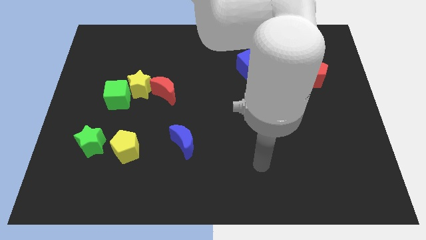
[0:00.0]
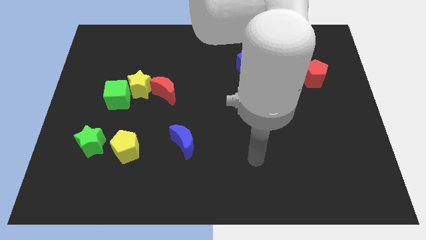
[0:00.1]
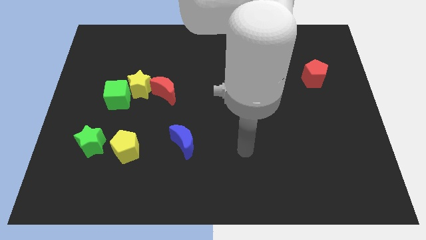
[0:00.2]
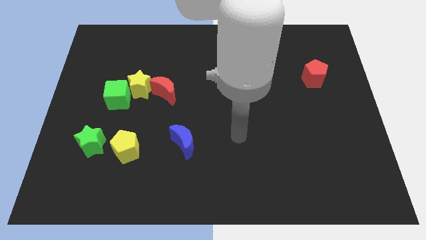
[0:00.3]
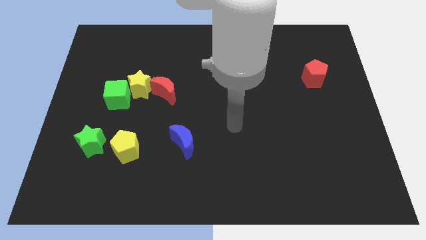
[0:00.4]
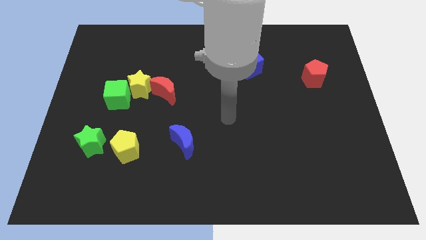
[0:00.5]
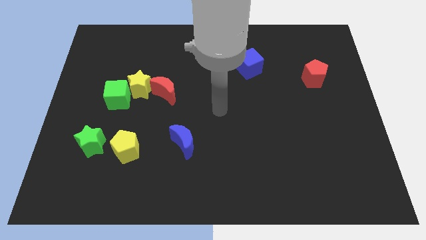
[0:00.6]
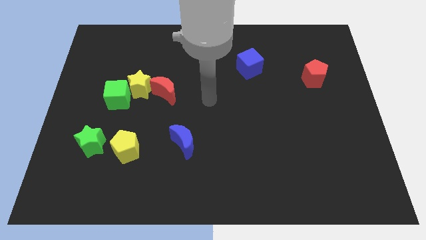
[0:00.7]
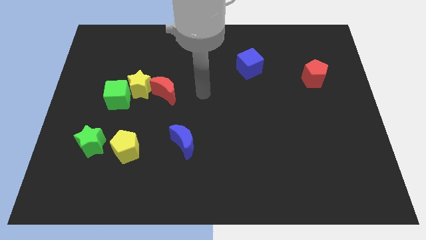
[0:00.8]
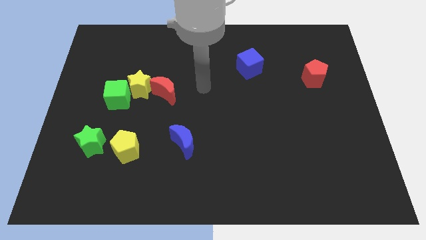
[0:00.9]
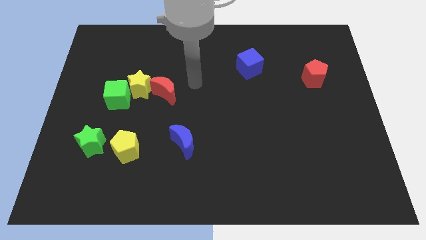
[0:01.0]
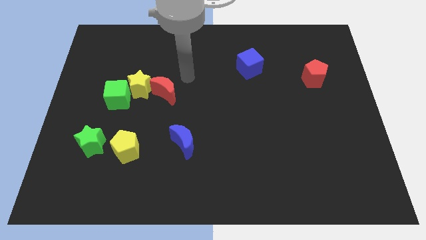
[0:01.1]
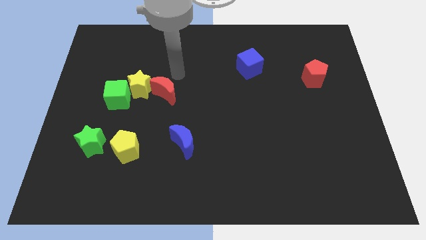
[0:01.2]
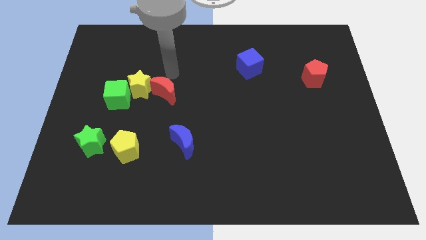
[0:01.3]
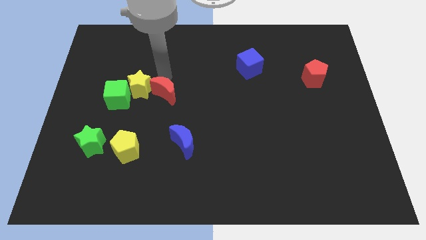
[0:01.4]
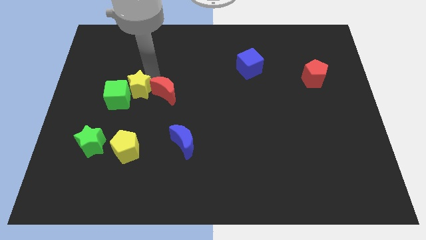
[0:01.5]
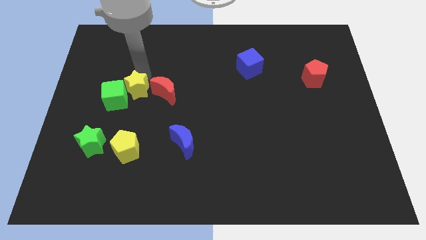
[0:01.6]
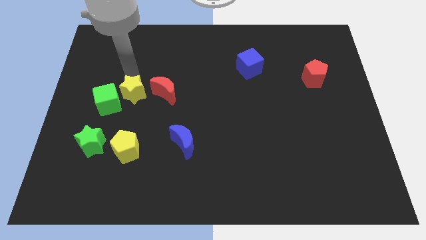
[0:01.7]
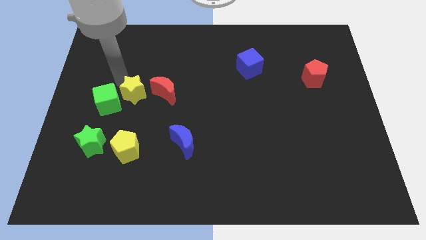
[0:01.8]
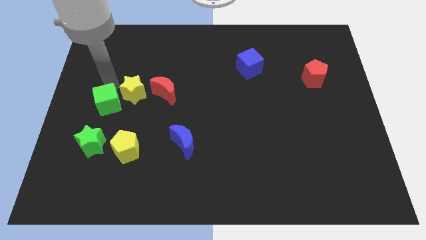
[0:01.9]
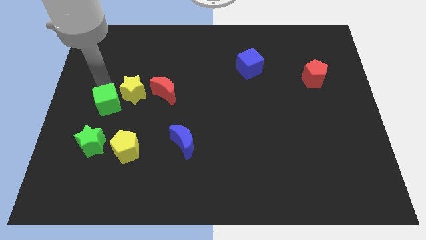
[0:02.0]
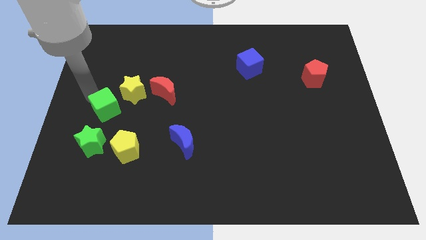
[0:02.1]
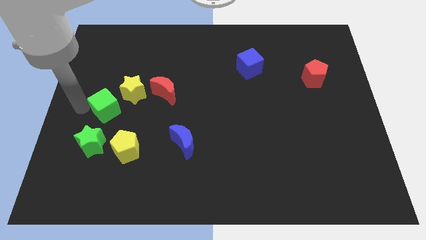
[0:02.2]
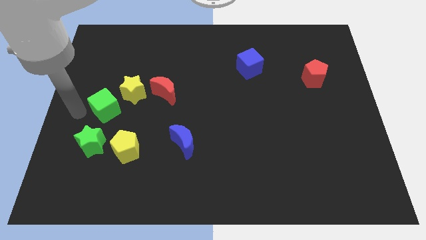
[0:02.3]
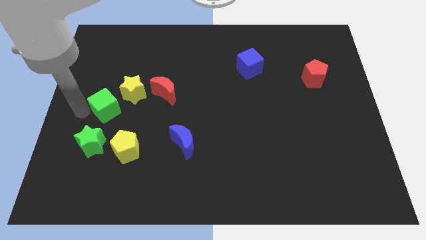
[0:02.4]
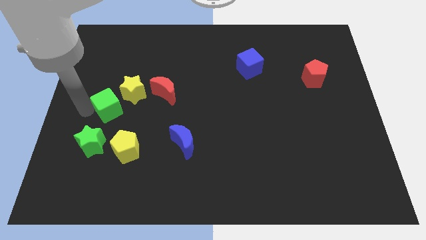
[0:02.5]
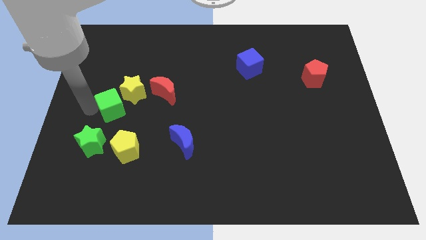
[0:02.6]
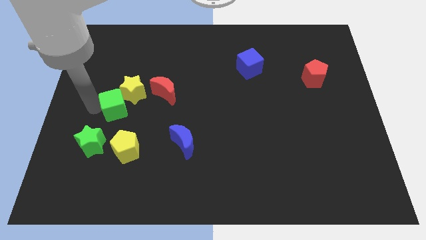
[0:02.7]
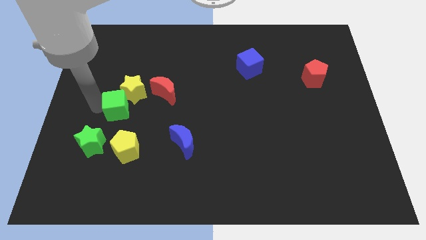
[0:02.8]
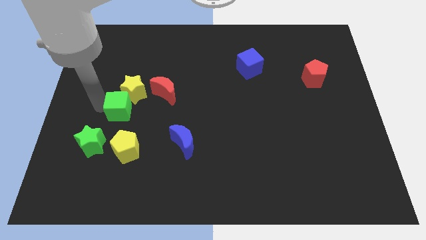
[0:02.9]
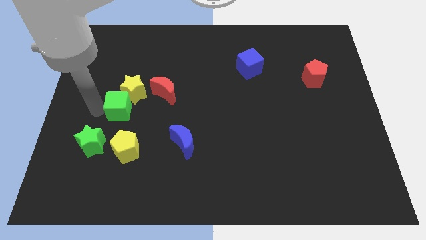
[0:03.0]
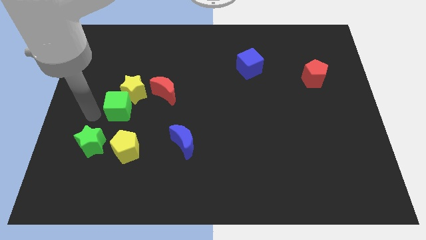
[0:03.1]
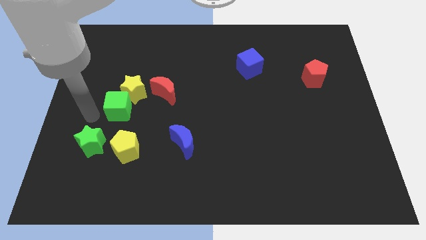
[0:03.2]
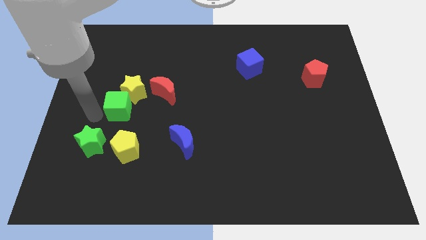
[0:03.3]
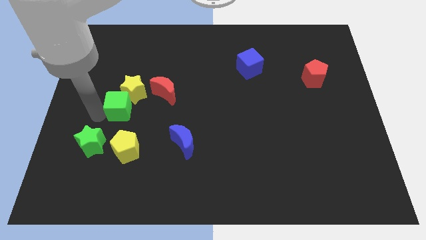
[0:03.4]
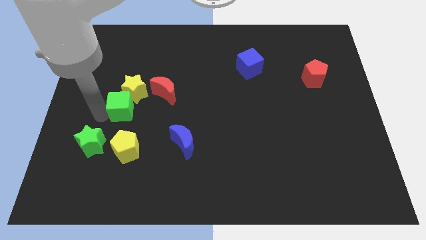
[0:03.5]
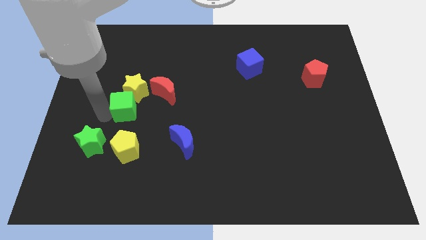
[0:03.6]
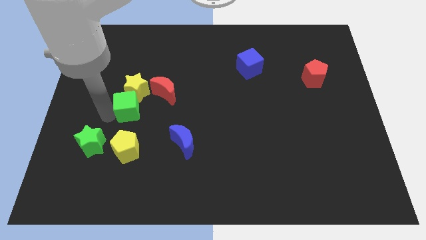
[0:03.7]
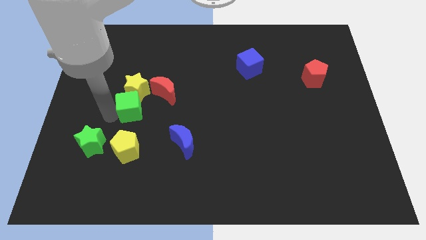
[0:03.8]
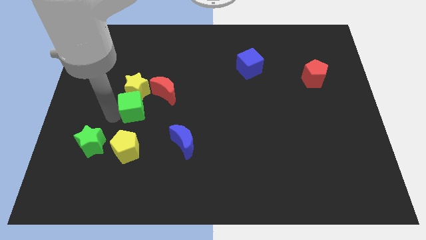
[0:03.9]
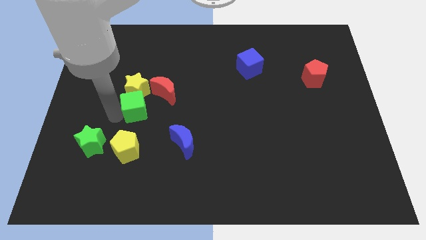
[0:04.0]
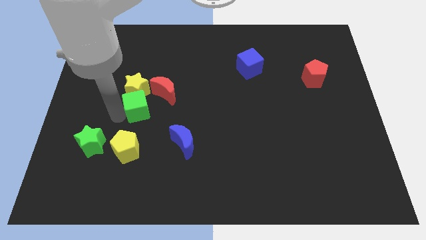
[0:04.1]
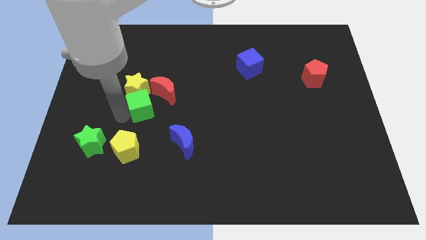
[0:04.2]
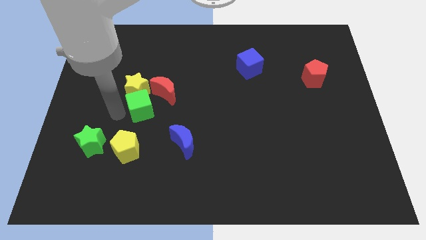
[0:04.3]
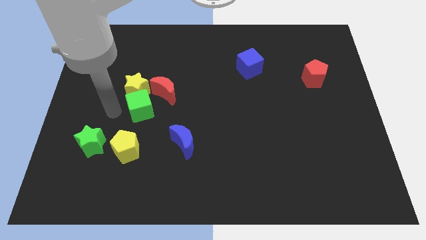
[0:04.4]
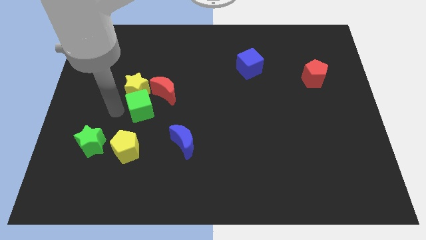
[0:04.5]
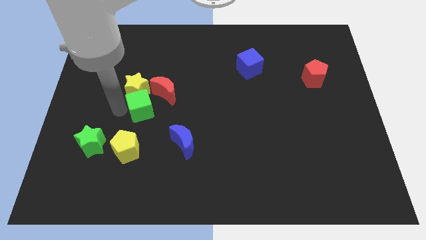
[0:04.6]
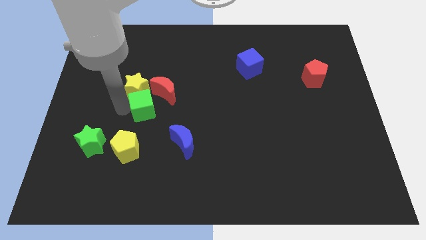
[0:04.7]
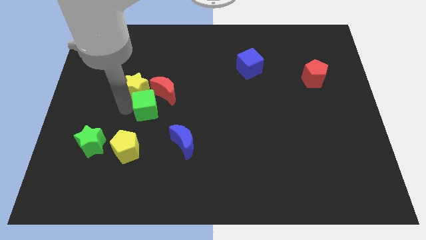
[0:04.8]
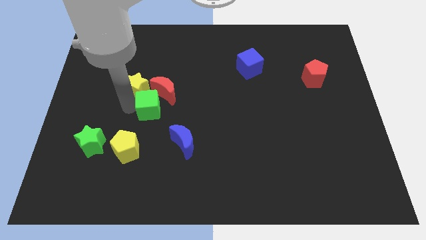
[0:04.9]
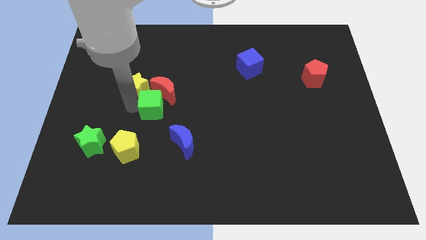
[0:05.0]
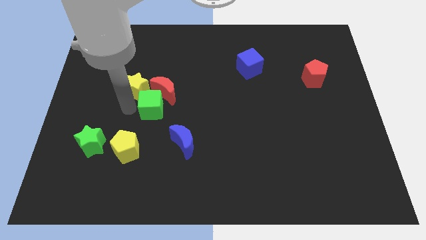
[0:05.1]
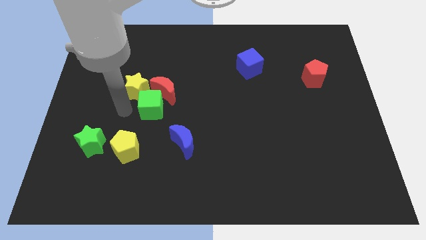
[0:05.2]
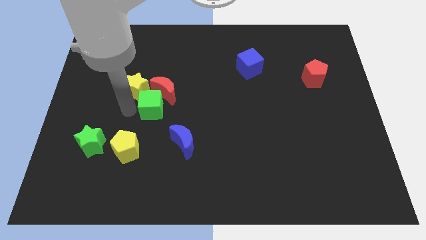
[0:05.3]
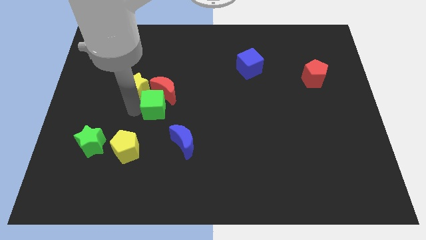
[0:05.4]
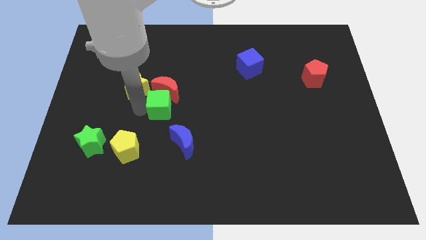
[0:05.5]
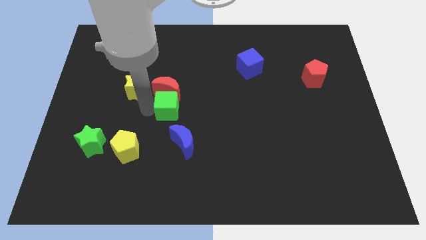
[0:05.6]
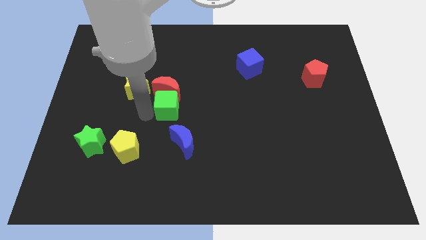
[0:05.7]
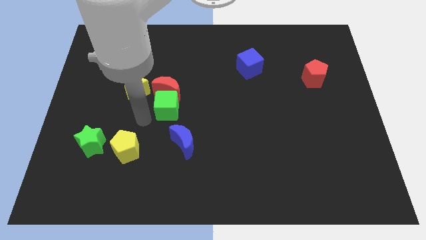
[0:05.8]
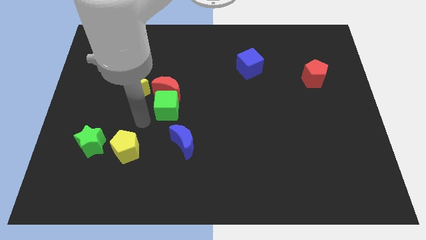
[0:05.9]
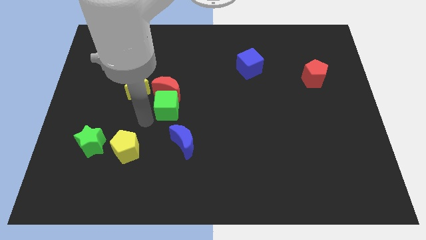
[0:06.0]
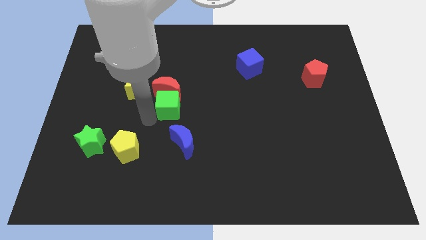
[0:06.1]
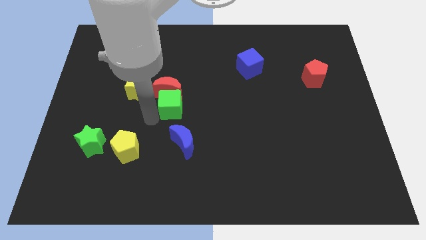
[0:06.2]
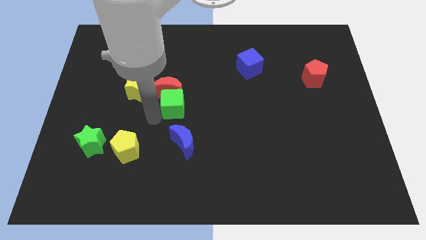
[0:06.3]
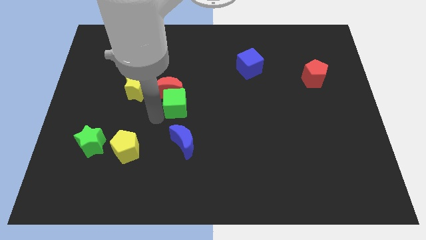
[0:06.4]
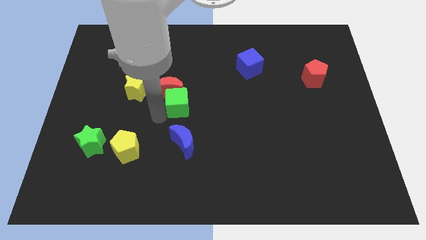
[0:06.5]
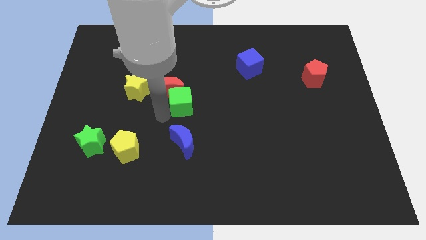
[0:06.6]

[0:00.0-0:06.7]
slide the green cube just right of the red moon

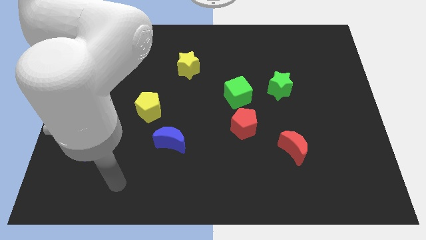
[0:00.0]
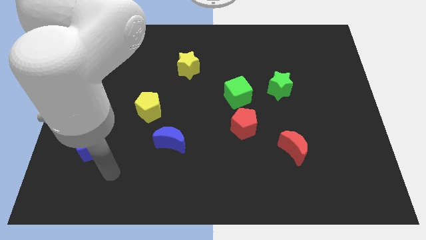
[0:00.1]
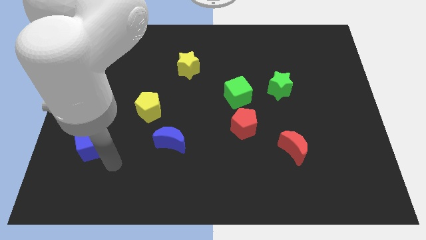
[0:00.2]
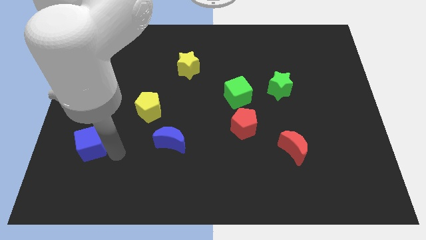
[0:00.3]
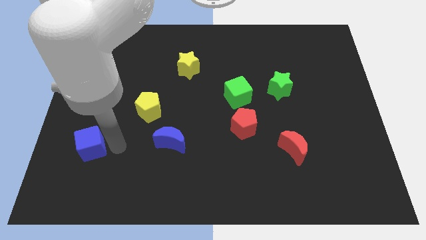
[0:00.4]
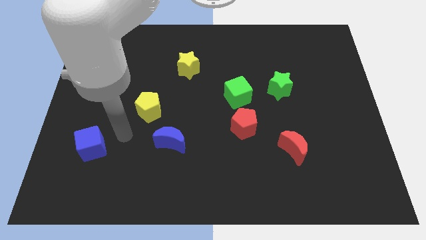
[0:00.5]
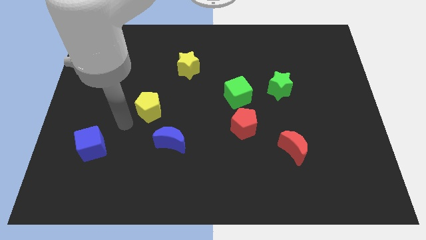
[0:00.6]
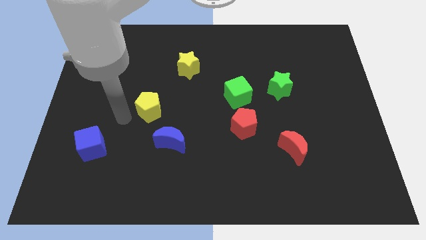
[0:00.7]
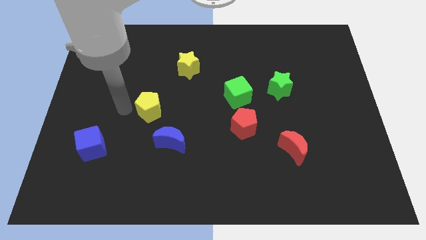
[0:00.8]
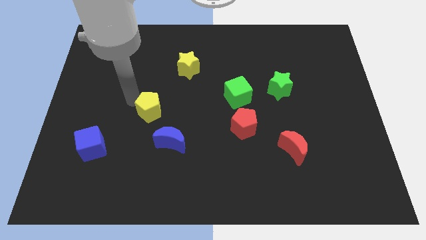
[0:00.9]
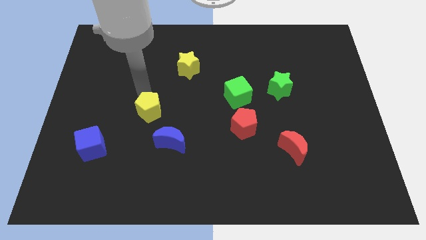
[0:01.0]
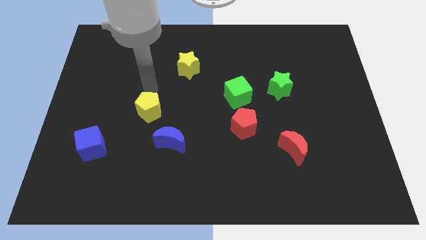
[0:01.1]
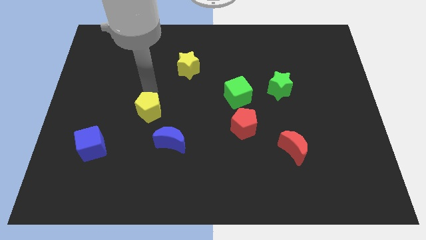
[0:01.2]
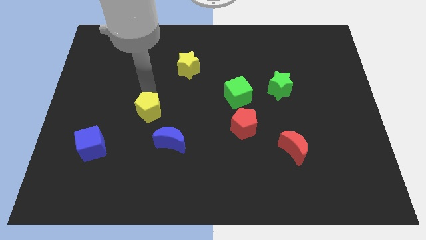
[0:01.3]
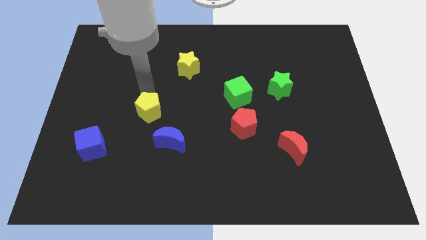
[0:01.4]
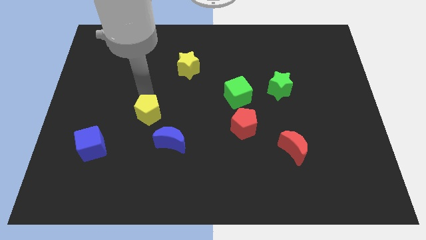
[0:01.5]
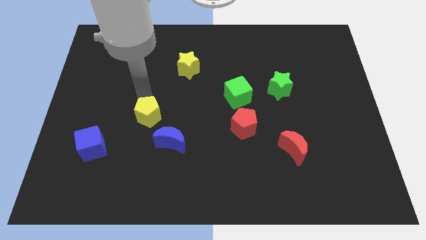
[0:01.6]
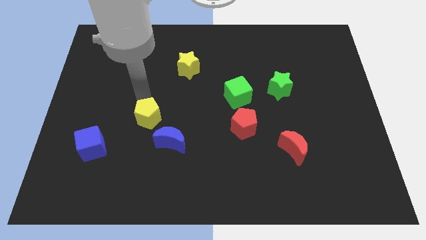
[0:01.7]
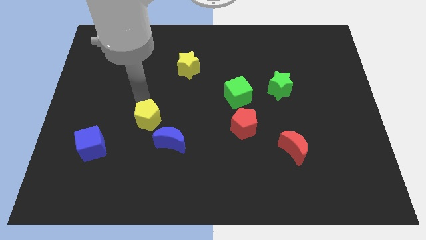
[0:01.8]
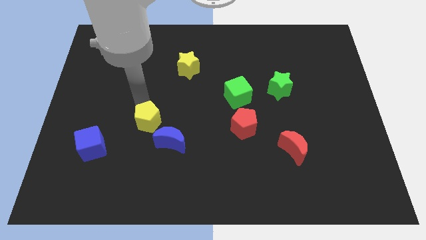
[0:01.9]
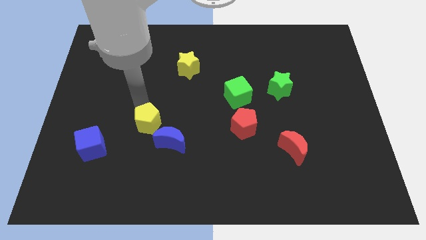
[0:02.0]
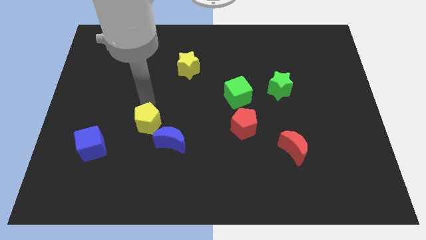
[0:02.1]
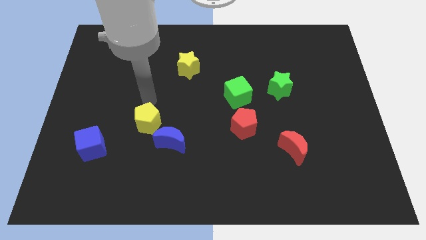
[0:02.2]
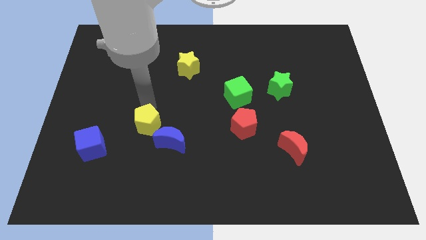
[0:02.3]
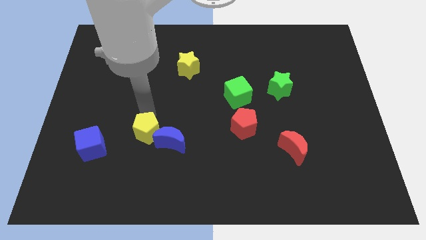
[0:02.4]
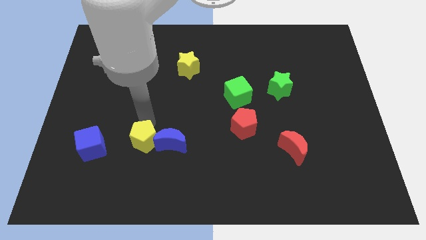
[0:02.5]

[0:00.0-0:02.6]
push the yellow pentagon to the bottom left side of the blue moon
